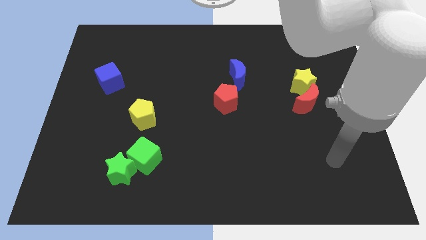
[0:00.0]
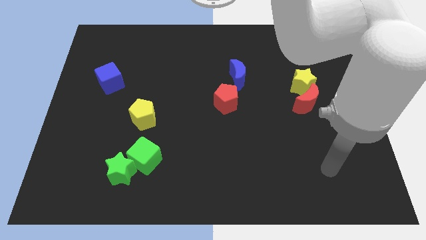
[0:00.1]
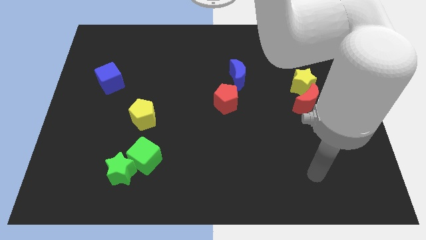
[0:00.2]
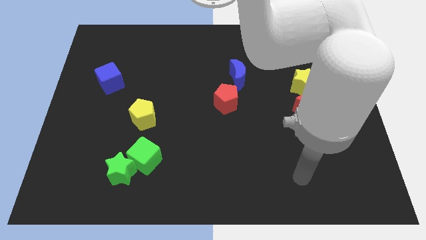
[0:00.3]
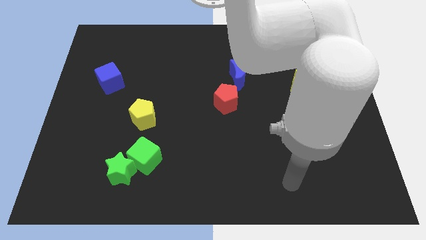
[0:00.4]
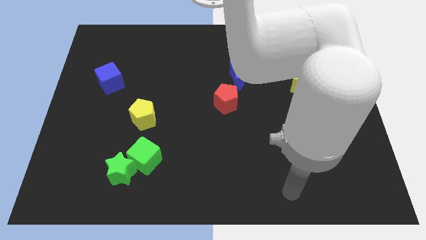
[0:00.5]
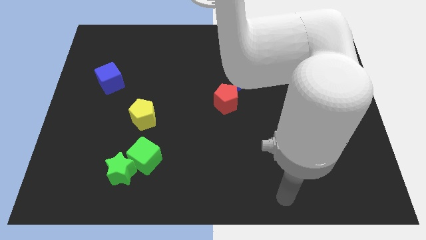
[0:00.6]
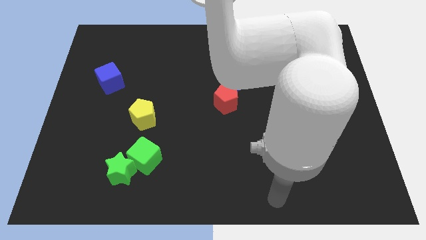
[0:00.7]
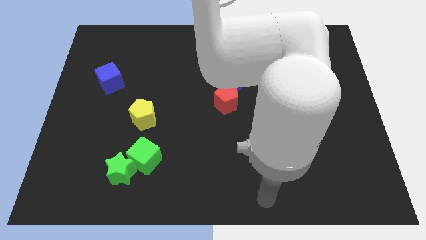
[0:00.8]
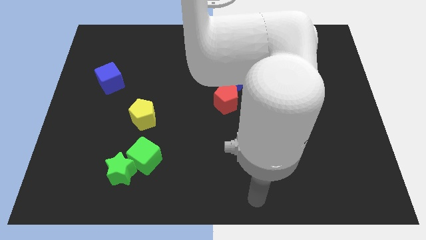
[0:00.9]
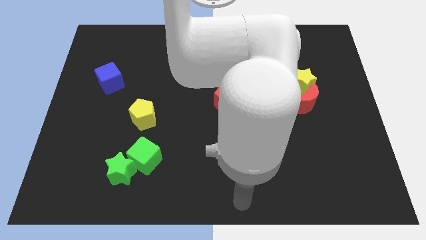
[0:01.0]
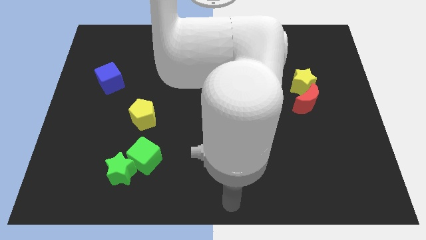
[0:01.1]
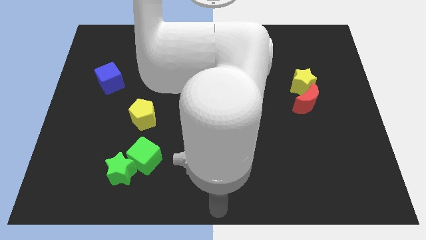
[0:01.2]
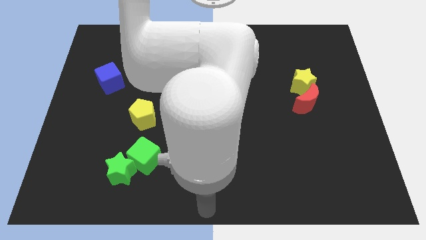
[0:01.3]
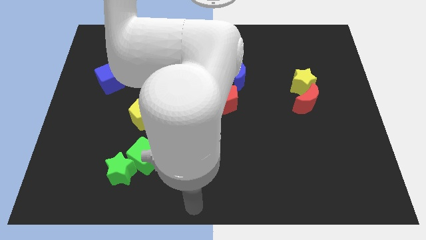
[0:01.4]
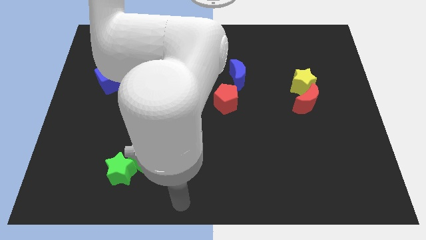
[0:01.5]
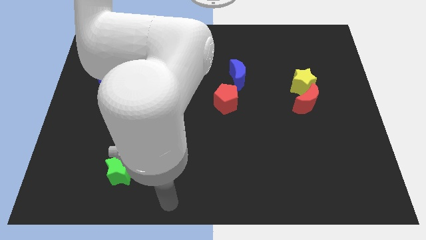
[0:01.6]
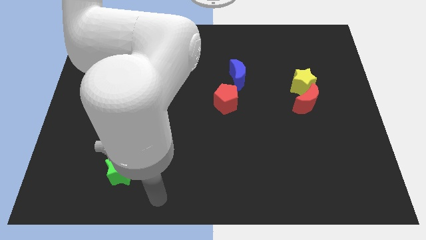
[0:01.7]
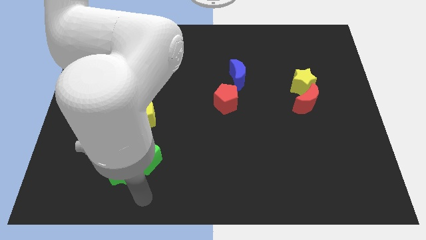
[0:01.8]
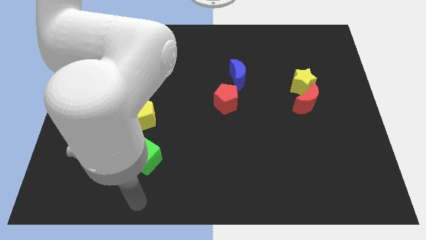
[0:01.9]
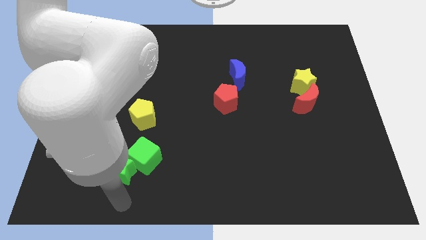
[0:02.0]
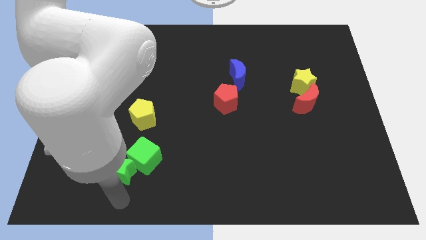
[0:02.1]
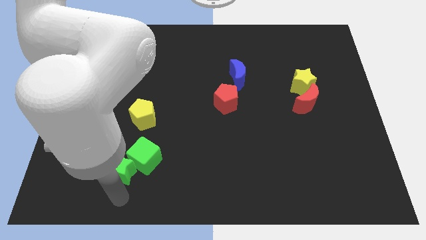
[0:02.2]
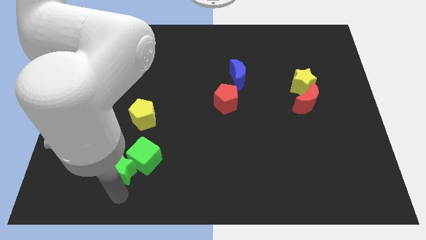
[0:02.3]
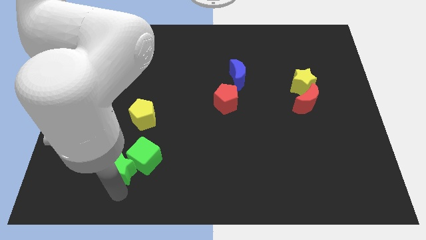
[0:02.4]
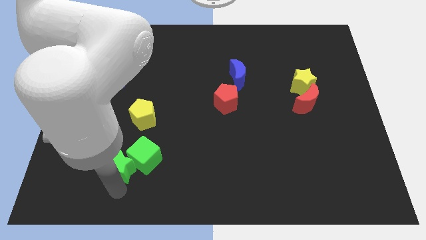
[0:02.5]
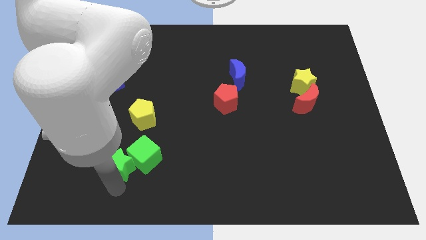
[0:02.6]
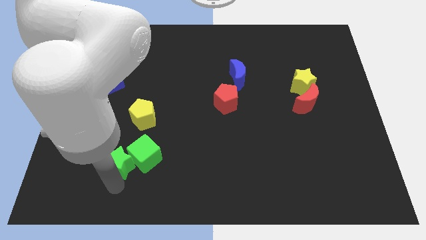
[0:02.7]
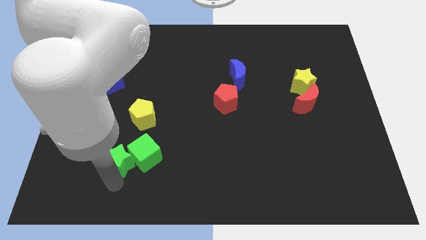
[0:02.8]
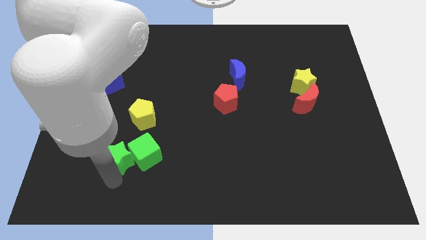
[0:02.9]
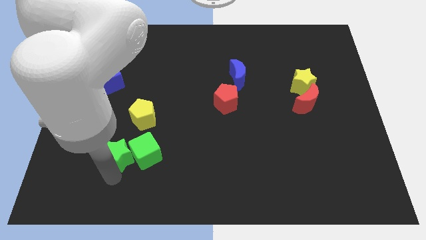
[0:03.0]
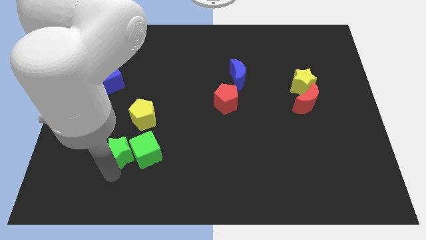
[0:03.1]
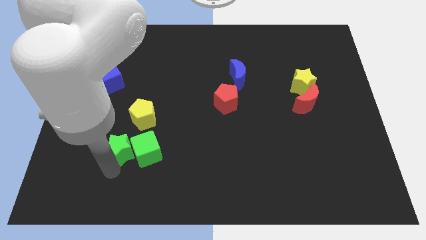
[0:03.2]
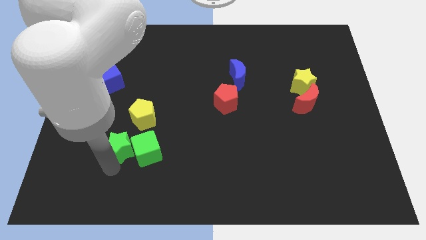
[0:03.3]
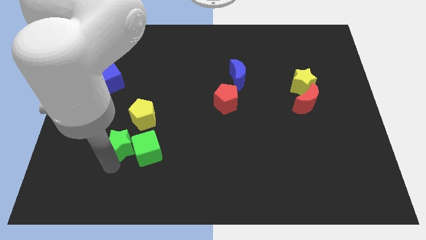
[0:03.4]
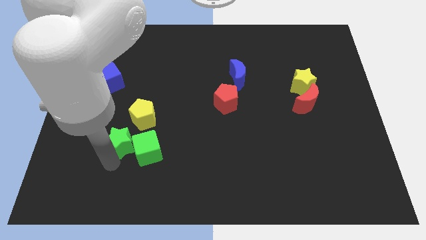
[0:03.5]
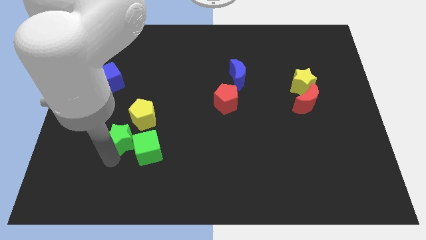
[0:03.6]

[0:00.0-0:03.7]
slide the green star up a little bit

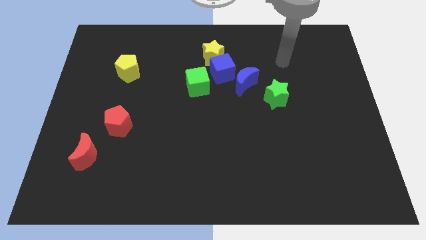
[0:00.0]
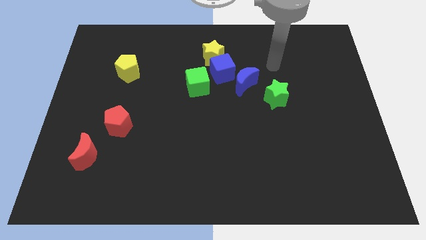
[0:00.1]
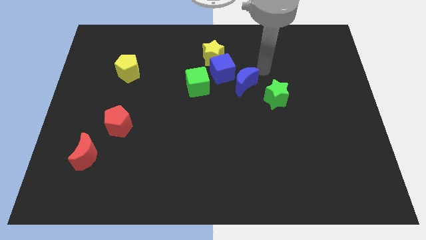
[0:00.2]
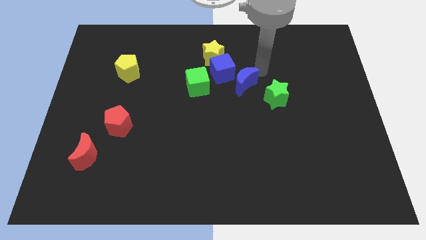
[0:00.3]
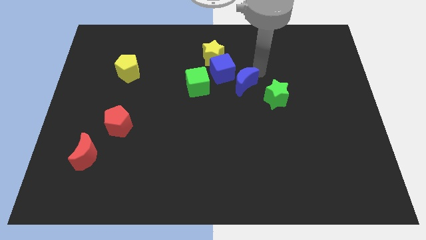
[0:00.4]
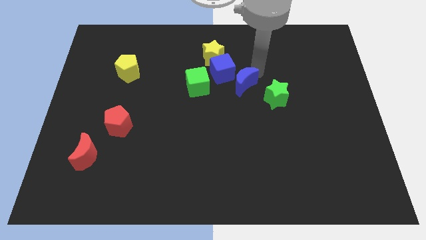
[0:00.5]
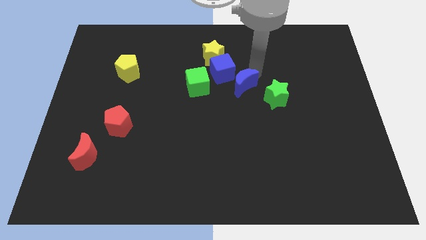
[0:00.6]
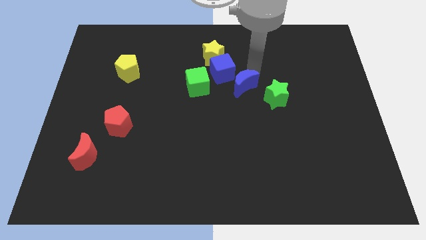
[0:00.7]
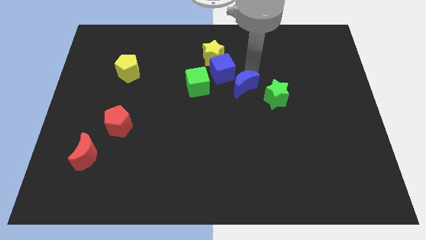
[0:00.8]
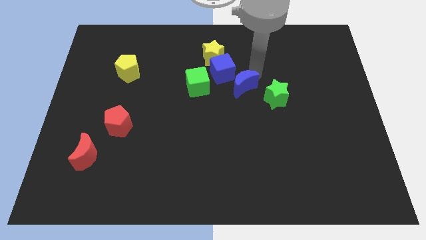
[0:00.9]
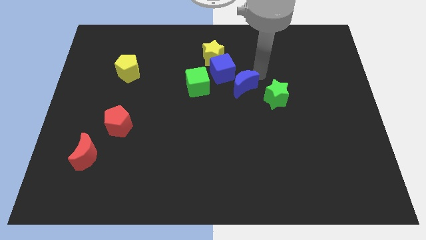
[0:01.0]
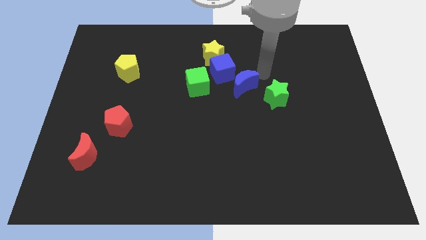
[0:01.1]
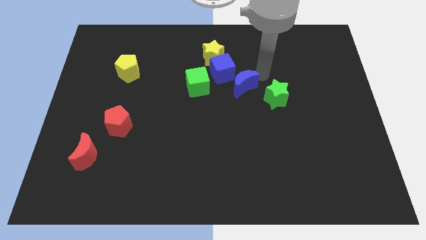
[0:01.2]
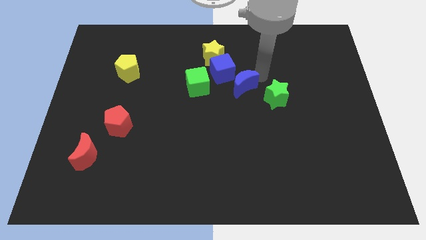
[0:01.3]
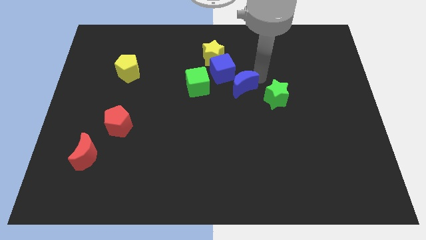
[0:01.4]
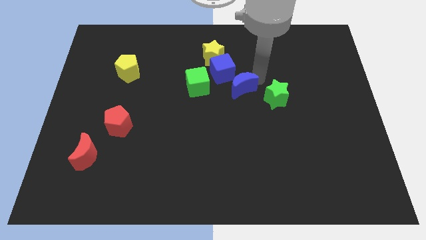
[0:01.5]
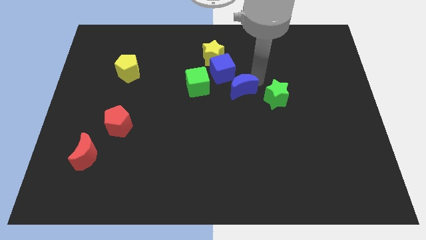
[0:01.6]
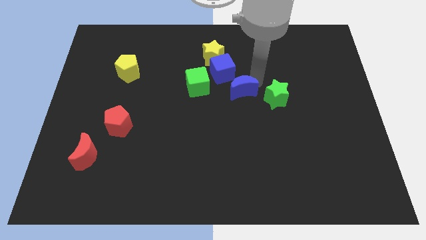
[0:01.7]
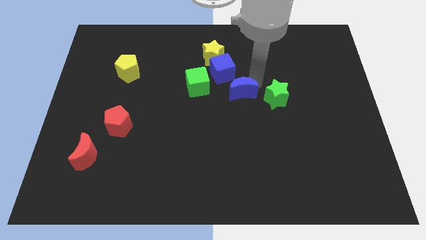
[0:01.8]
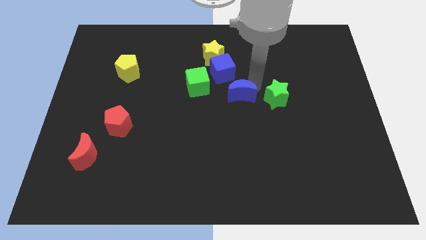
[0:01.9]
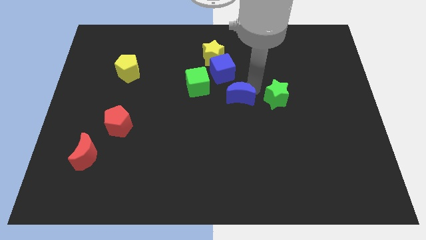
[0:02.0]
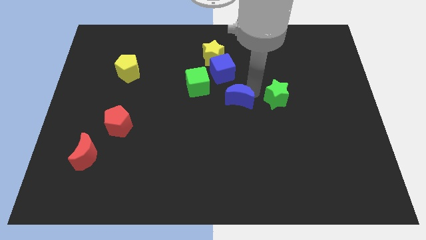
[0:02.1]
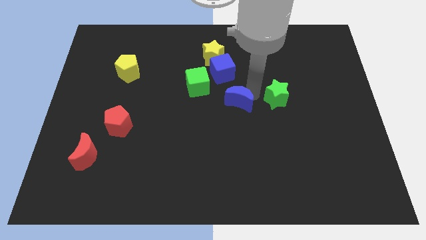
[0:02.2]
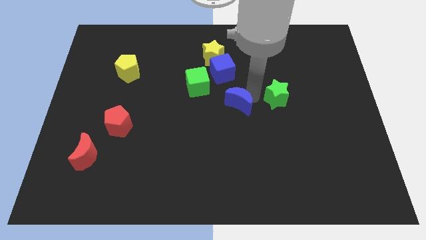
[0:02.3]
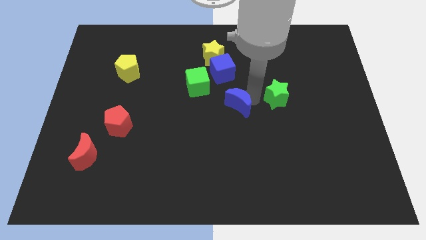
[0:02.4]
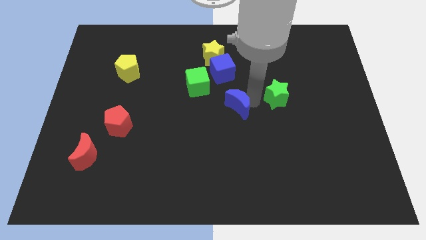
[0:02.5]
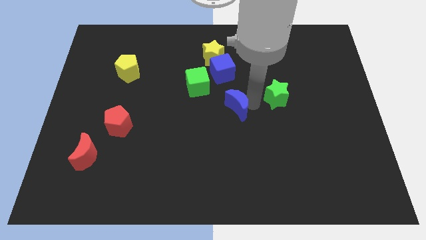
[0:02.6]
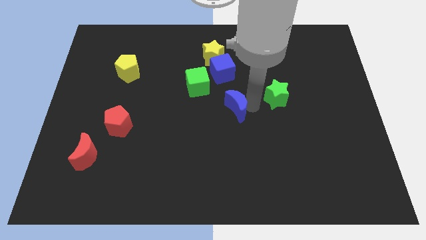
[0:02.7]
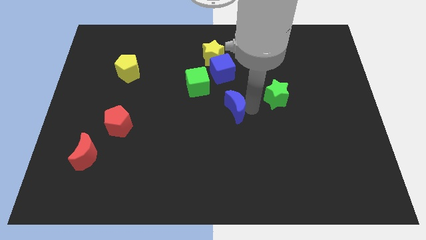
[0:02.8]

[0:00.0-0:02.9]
move the blue moon a little down and to the left

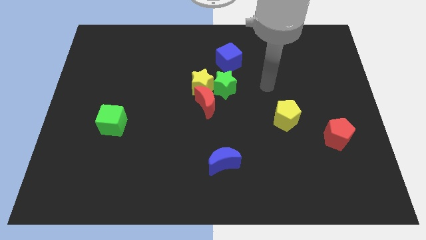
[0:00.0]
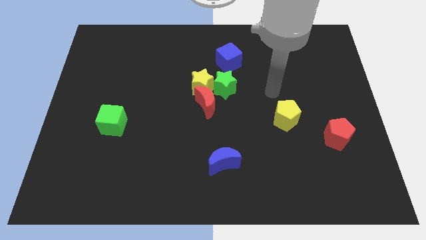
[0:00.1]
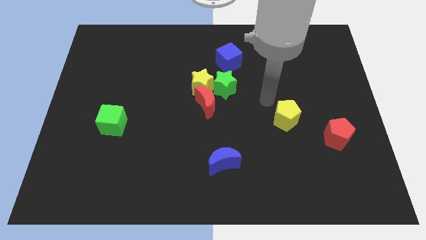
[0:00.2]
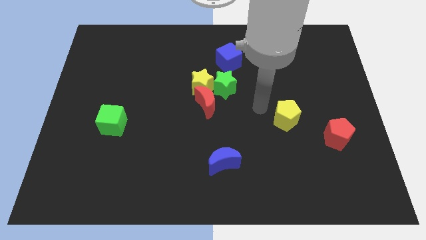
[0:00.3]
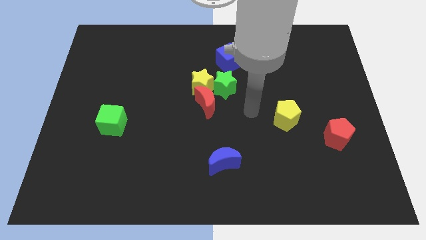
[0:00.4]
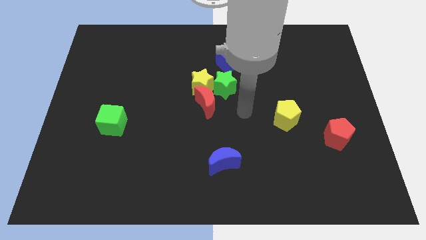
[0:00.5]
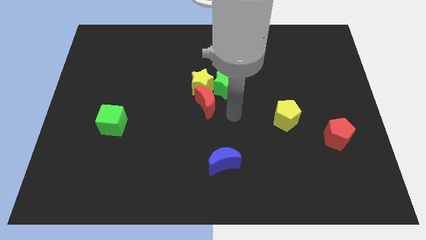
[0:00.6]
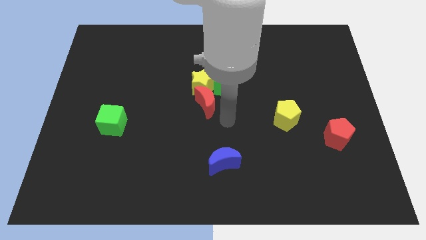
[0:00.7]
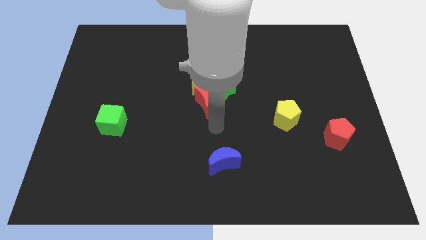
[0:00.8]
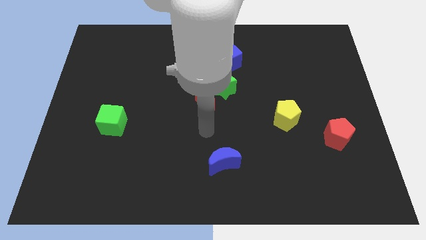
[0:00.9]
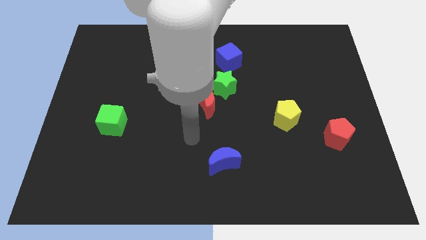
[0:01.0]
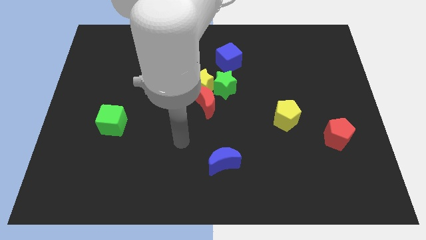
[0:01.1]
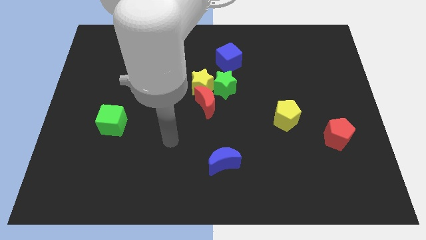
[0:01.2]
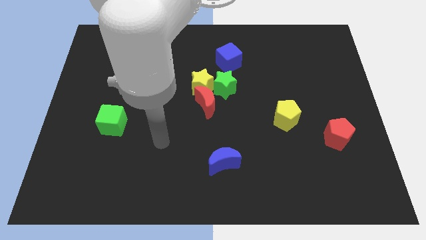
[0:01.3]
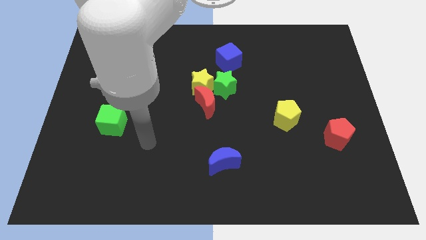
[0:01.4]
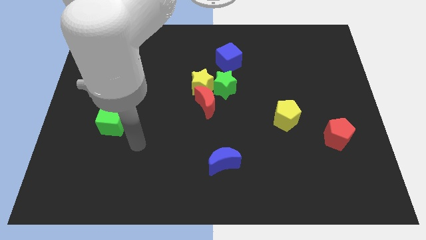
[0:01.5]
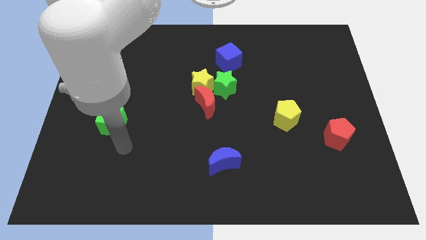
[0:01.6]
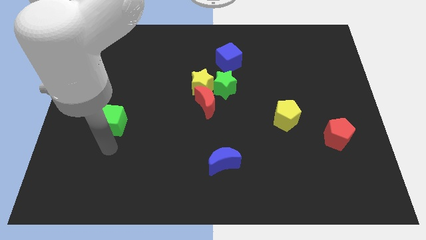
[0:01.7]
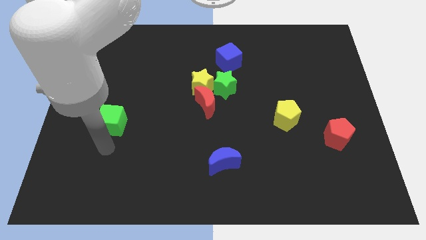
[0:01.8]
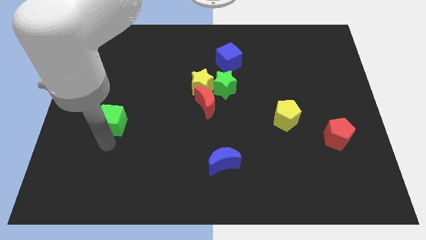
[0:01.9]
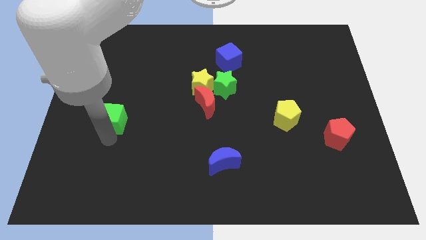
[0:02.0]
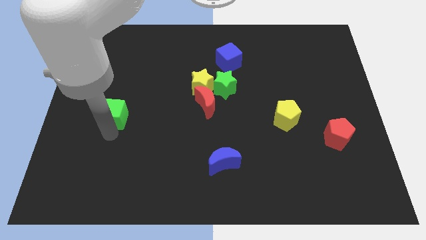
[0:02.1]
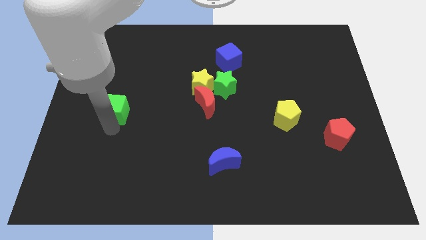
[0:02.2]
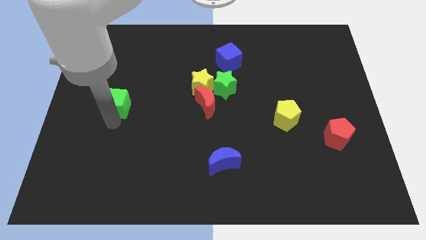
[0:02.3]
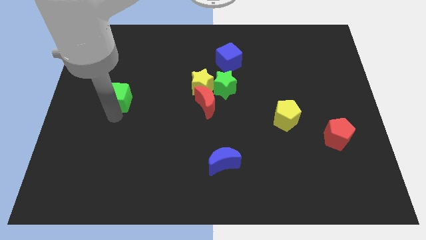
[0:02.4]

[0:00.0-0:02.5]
slightly slide the green cube upwards
